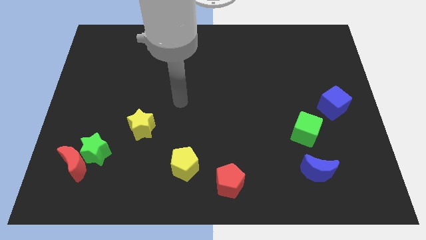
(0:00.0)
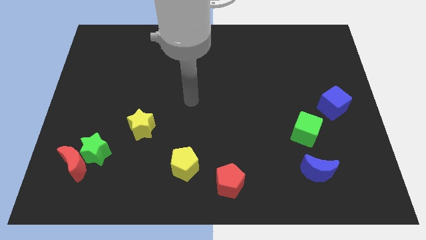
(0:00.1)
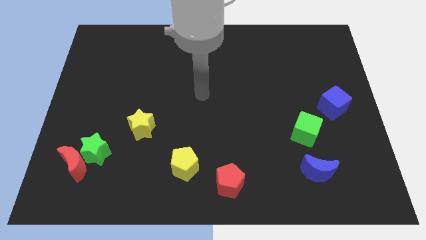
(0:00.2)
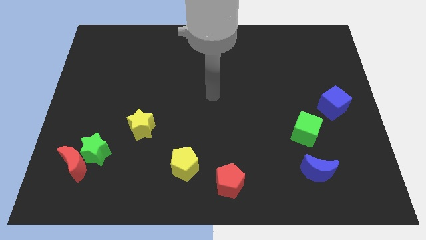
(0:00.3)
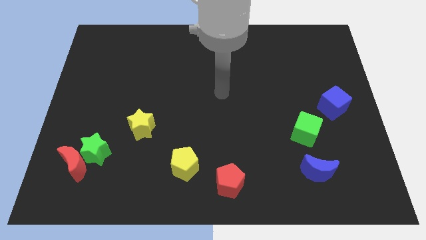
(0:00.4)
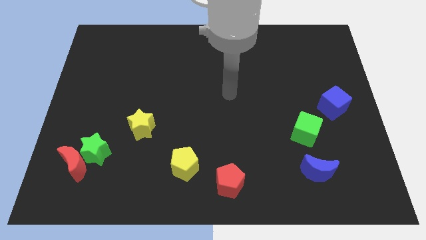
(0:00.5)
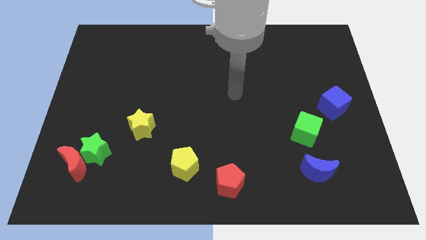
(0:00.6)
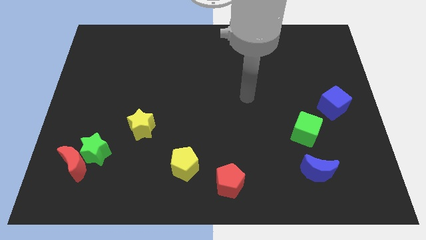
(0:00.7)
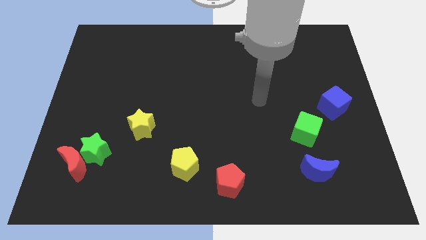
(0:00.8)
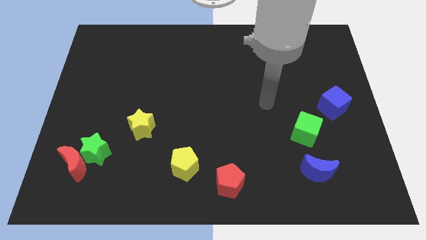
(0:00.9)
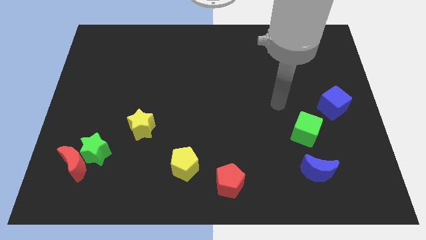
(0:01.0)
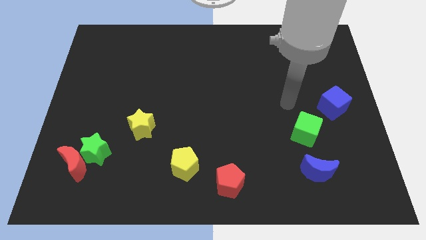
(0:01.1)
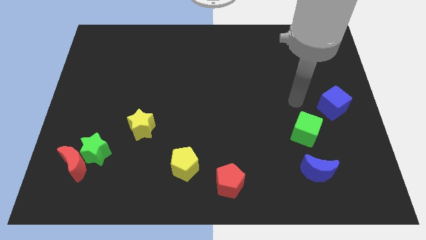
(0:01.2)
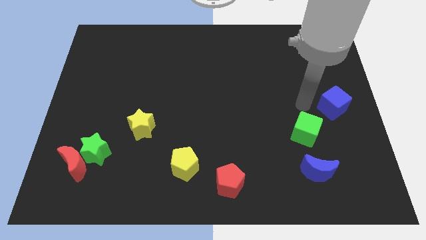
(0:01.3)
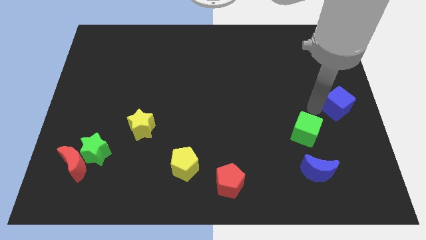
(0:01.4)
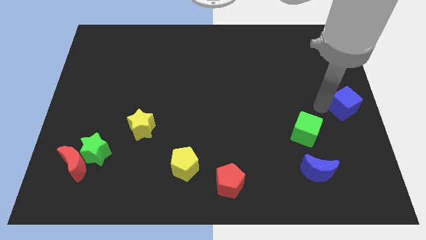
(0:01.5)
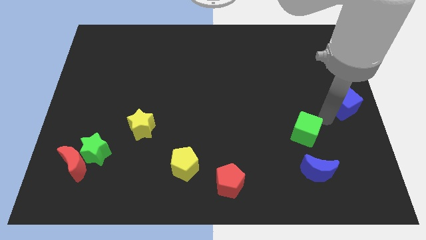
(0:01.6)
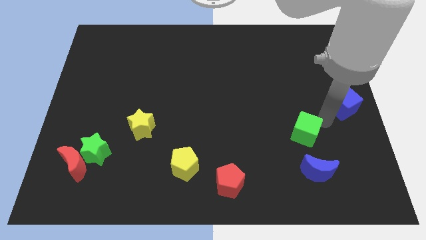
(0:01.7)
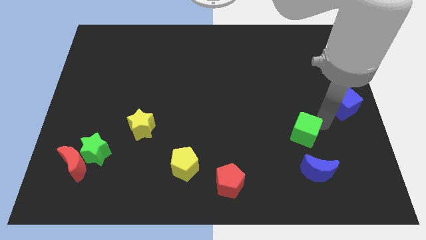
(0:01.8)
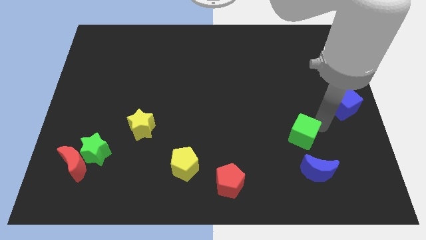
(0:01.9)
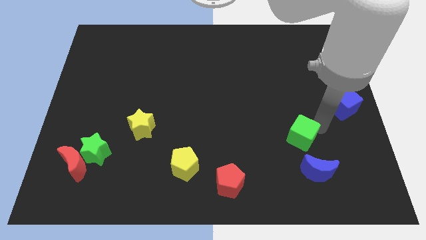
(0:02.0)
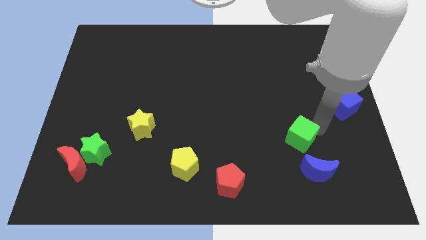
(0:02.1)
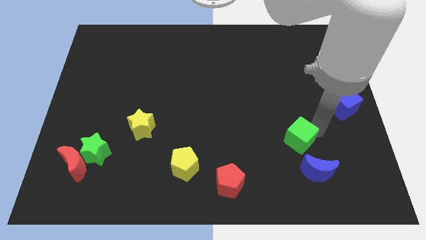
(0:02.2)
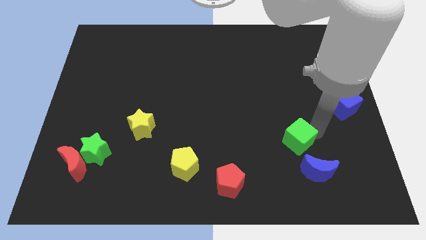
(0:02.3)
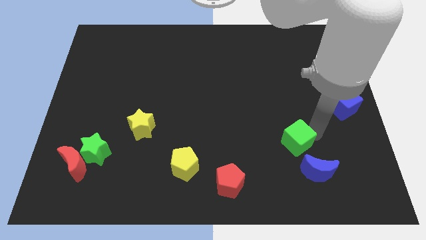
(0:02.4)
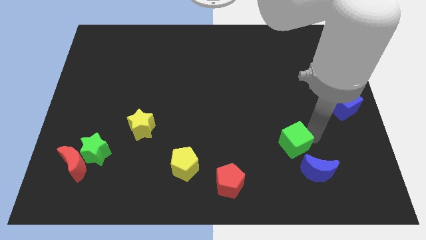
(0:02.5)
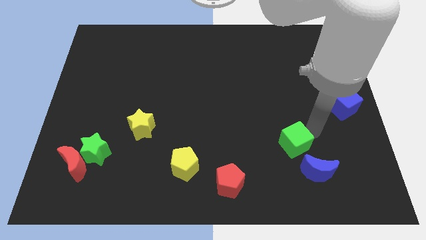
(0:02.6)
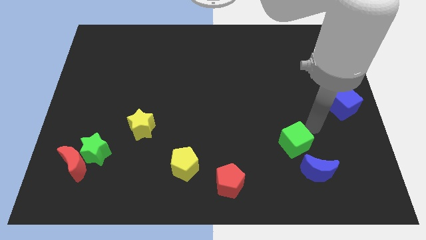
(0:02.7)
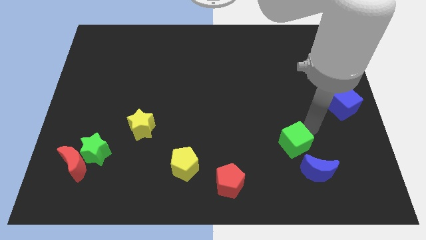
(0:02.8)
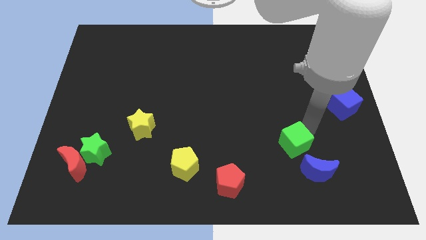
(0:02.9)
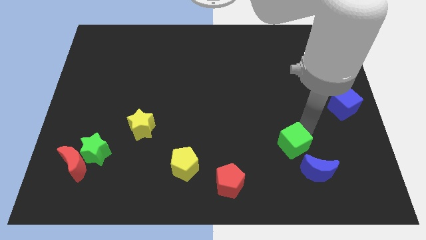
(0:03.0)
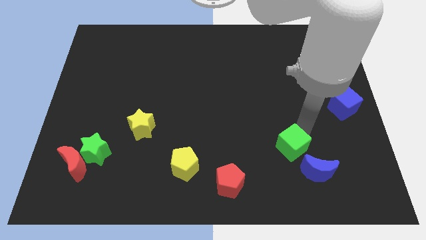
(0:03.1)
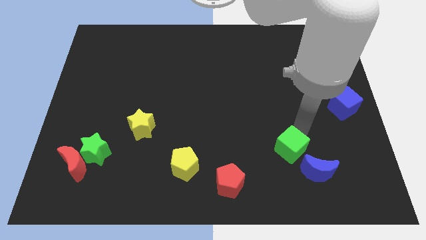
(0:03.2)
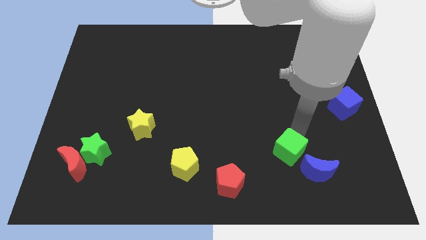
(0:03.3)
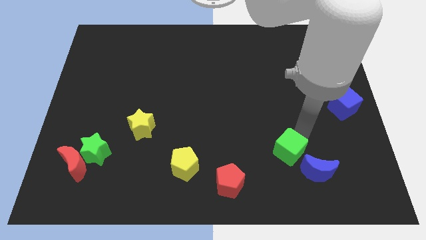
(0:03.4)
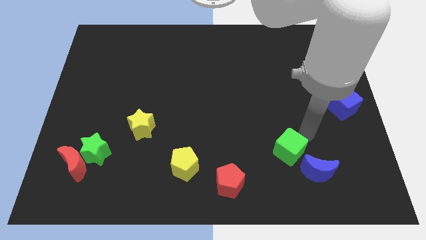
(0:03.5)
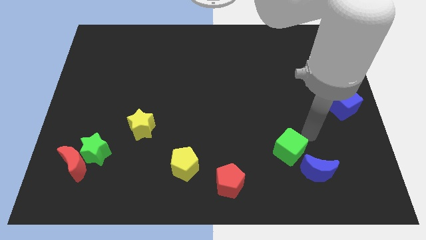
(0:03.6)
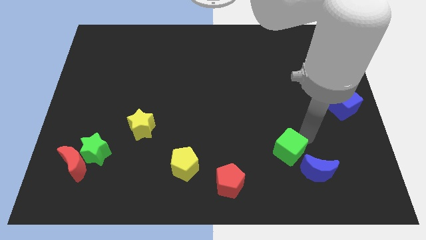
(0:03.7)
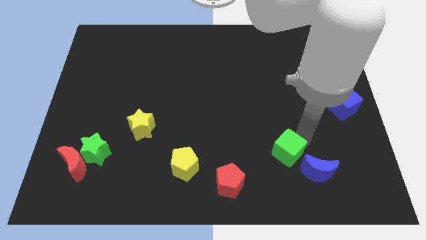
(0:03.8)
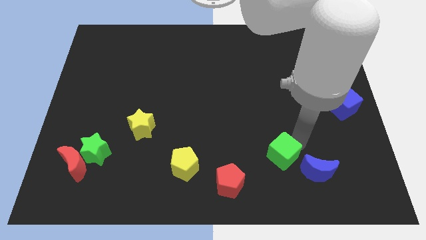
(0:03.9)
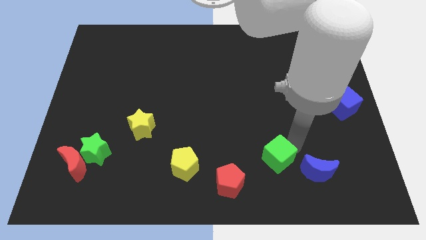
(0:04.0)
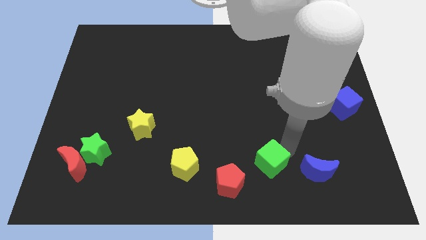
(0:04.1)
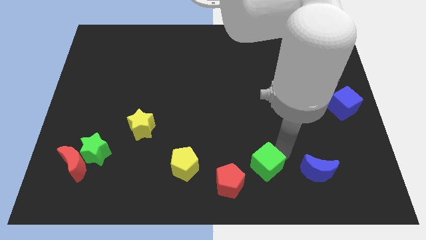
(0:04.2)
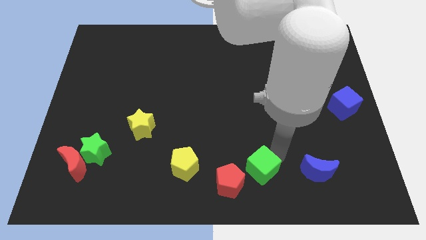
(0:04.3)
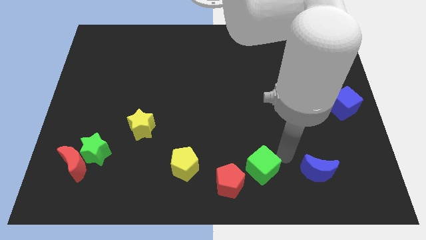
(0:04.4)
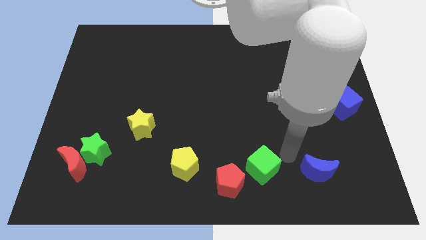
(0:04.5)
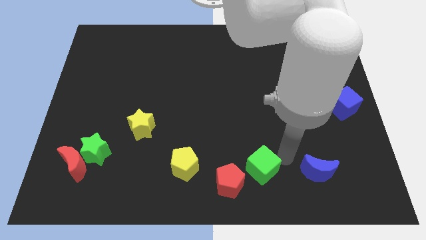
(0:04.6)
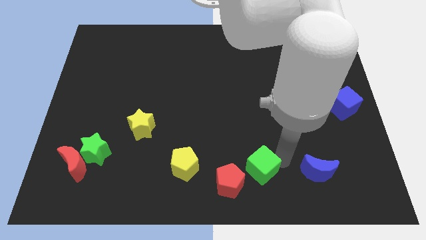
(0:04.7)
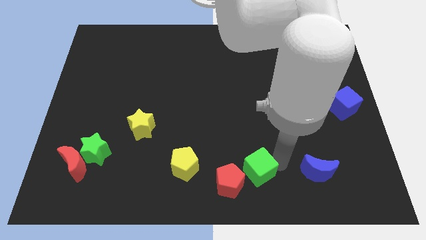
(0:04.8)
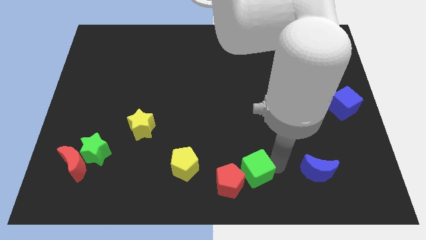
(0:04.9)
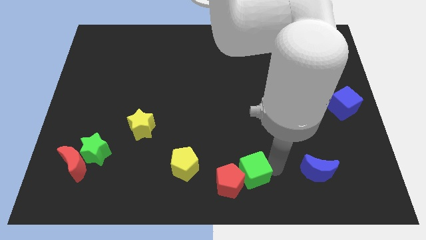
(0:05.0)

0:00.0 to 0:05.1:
push the green cube to the red pentagon

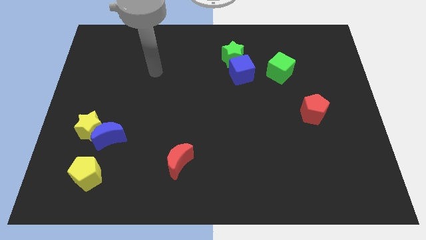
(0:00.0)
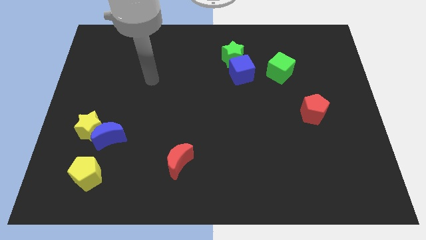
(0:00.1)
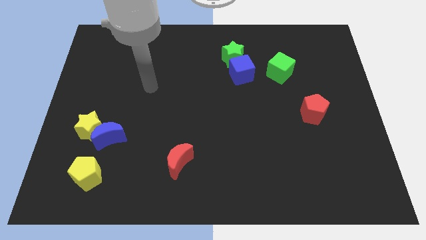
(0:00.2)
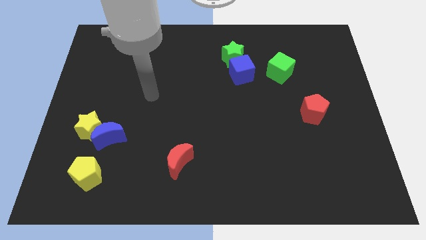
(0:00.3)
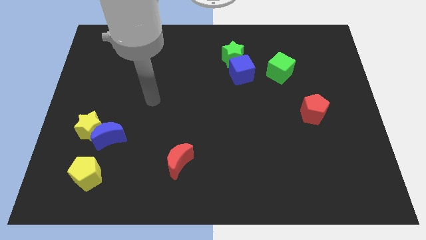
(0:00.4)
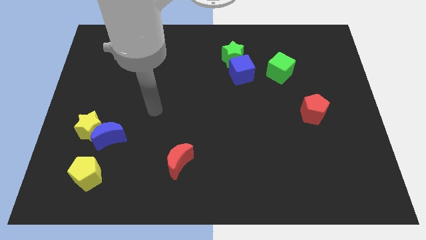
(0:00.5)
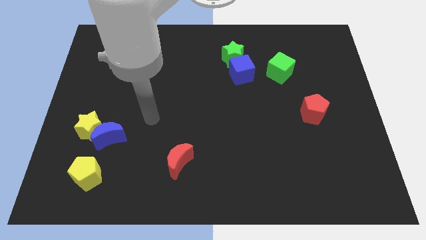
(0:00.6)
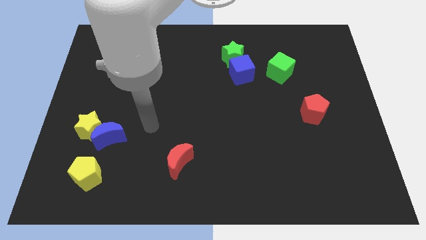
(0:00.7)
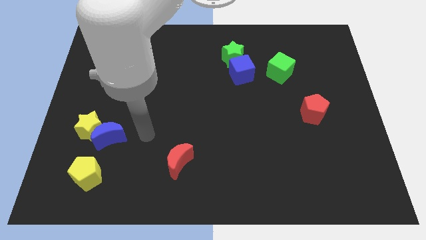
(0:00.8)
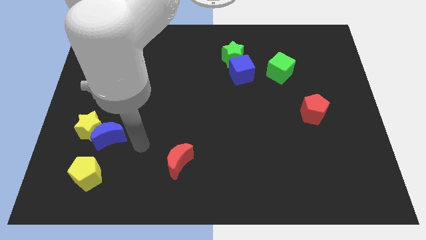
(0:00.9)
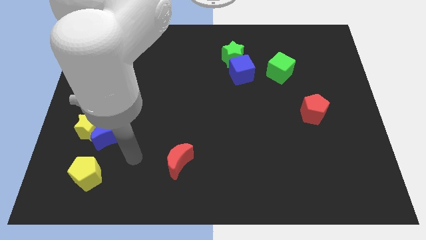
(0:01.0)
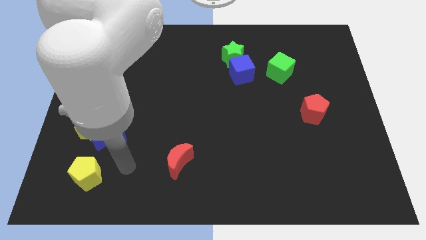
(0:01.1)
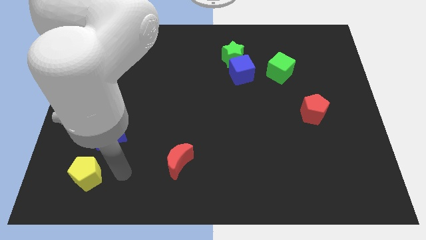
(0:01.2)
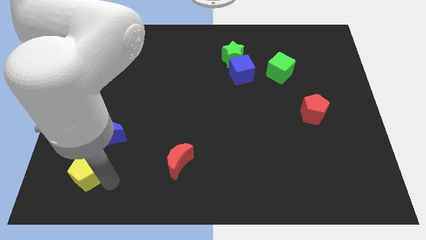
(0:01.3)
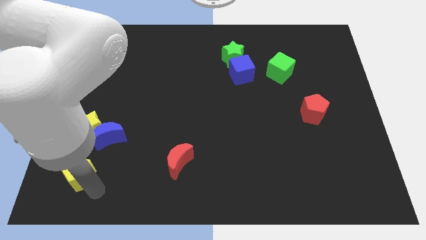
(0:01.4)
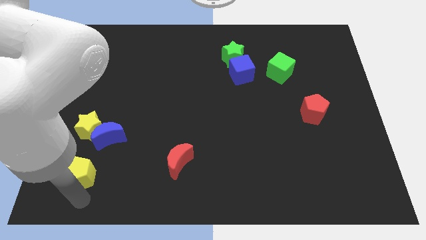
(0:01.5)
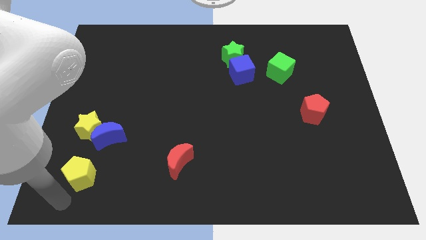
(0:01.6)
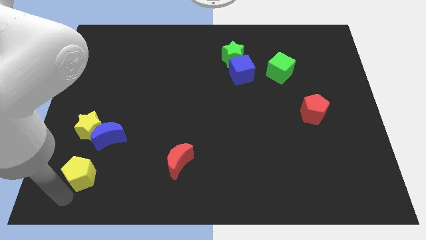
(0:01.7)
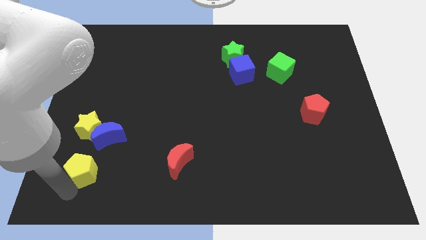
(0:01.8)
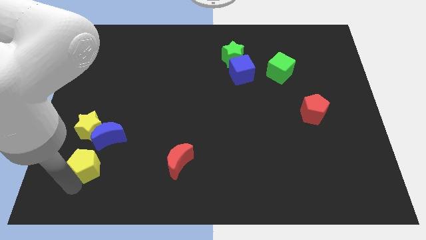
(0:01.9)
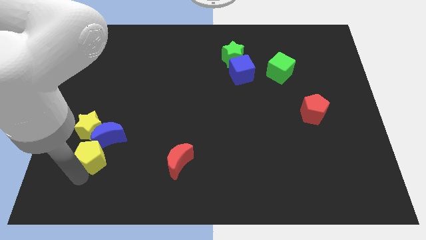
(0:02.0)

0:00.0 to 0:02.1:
move the yellow pentagon towards the blue moon

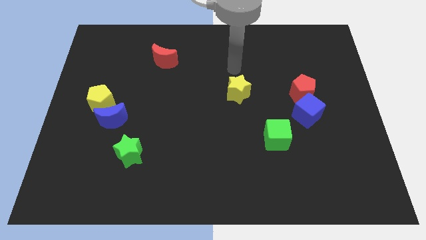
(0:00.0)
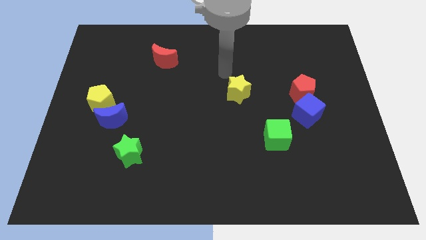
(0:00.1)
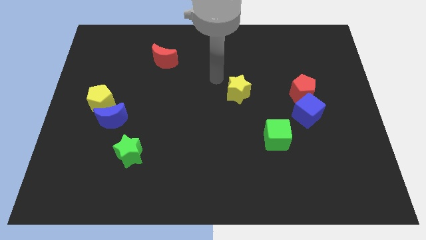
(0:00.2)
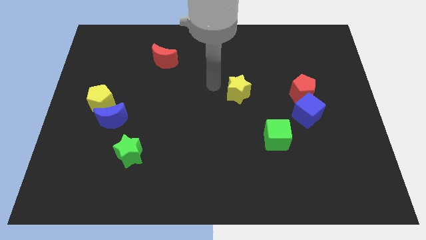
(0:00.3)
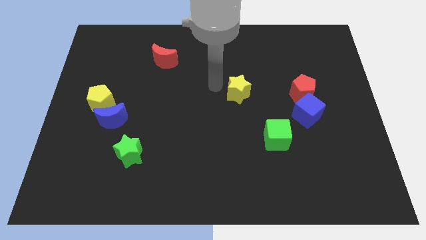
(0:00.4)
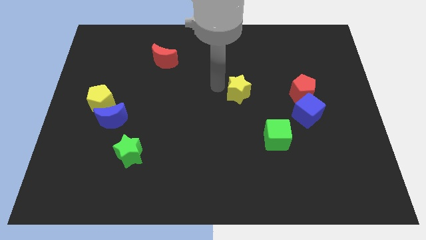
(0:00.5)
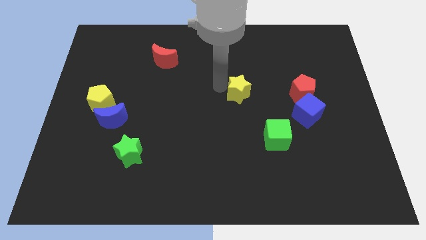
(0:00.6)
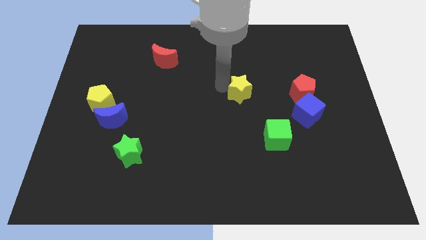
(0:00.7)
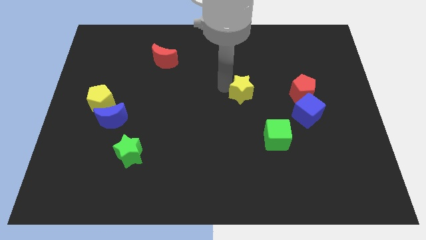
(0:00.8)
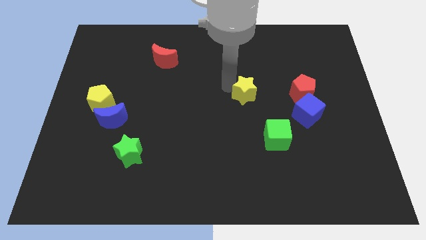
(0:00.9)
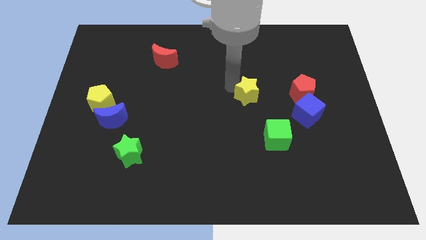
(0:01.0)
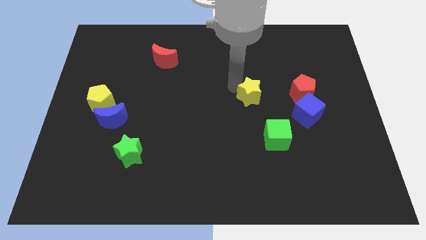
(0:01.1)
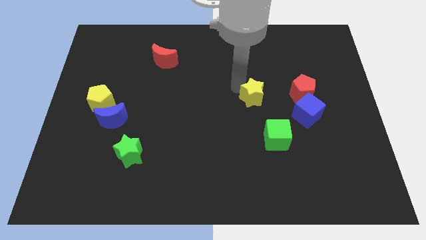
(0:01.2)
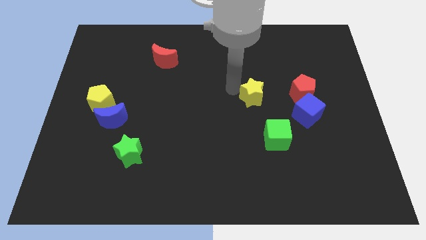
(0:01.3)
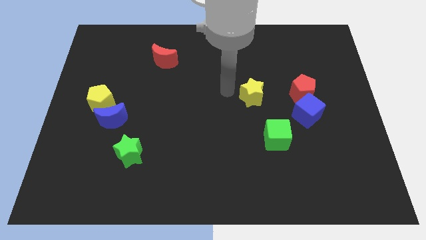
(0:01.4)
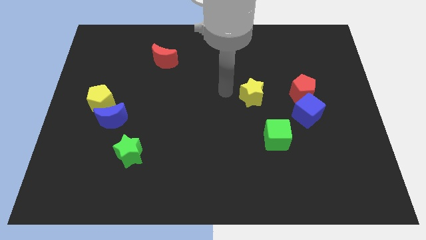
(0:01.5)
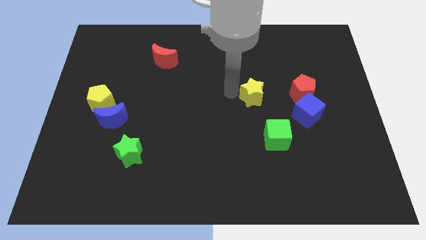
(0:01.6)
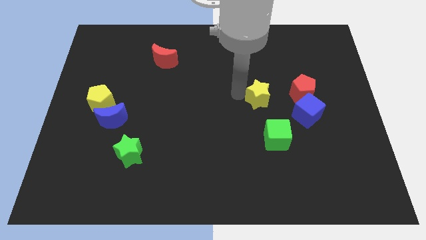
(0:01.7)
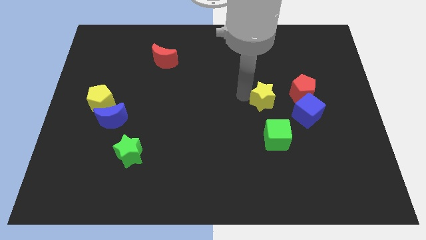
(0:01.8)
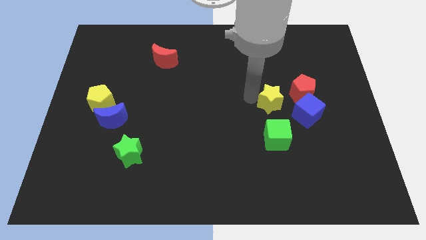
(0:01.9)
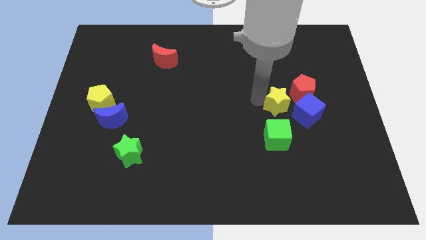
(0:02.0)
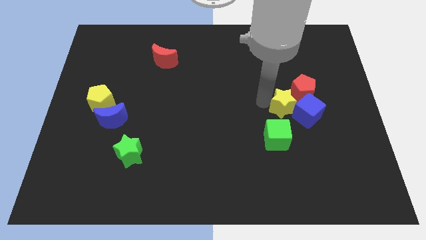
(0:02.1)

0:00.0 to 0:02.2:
put the yellow star close to the blue cube
